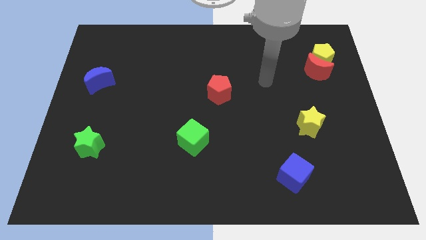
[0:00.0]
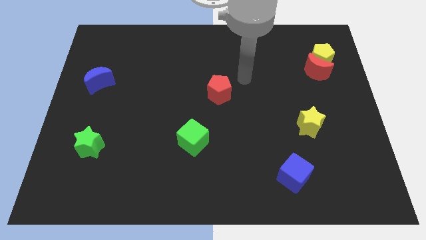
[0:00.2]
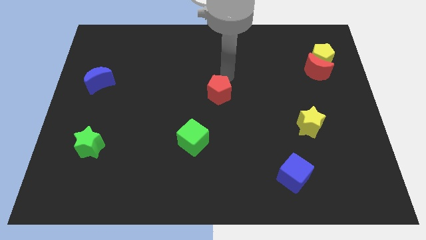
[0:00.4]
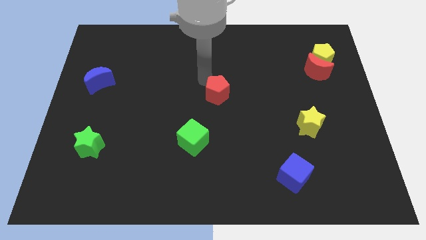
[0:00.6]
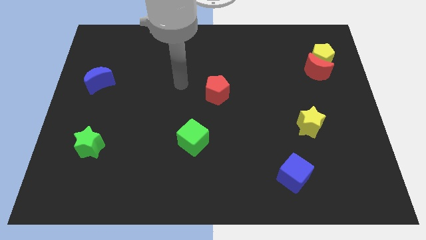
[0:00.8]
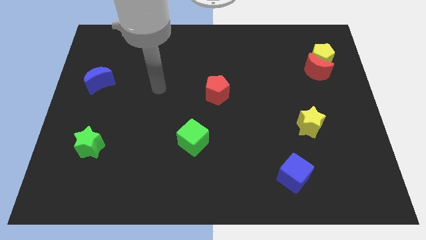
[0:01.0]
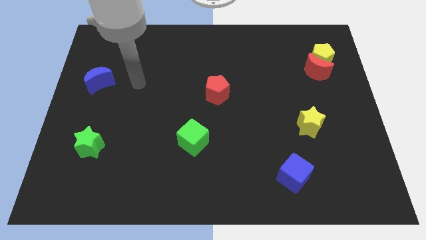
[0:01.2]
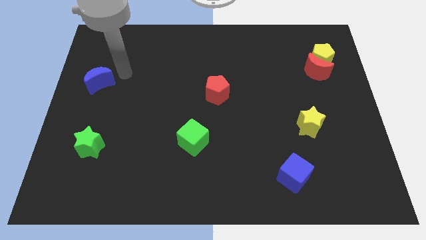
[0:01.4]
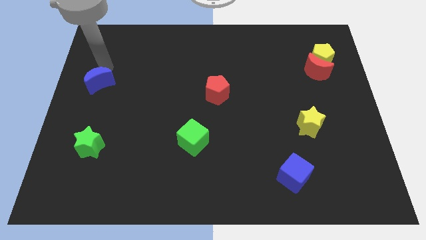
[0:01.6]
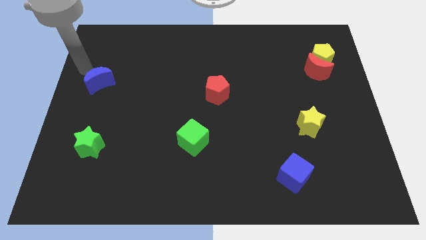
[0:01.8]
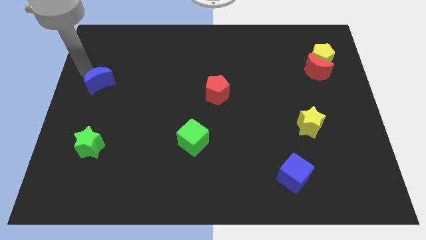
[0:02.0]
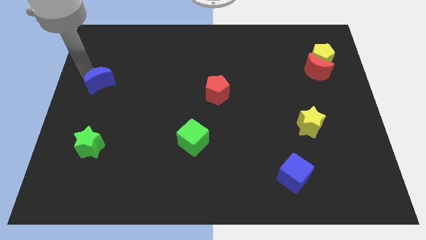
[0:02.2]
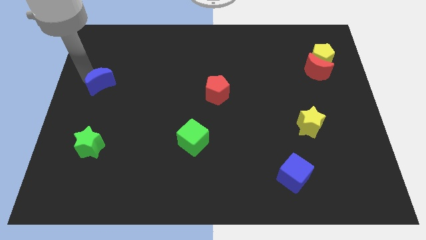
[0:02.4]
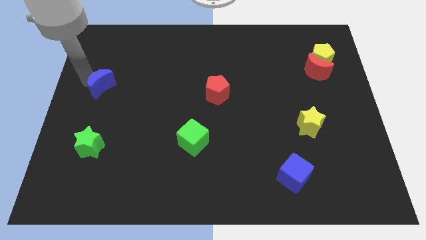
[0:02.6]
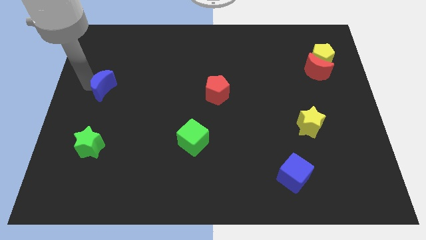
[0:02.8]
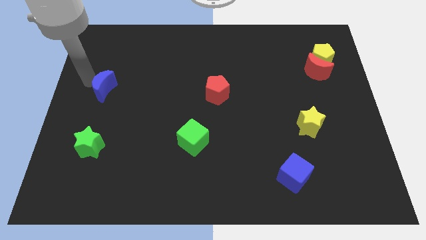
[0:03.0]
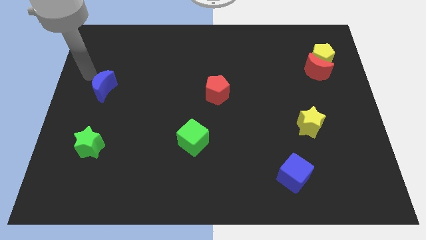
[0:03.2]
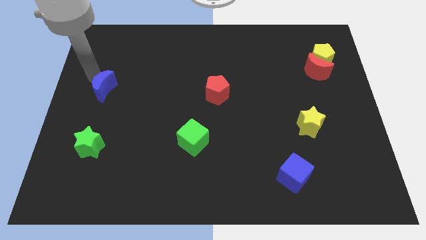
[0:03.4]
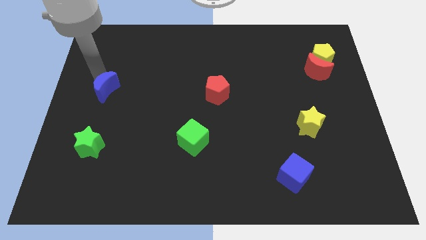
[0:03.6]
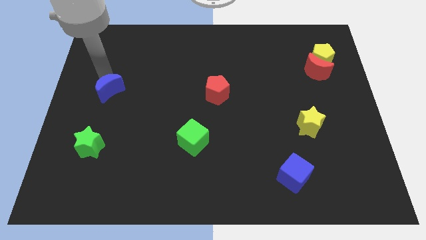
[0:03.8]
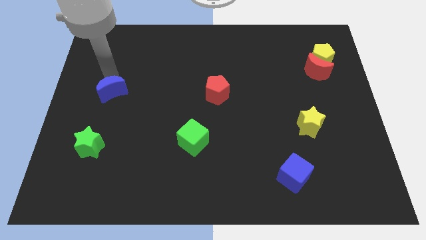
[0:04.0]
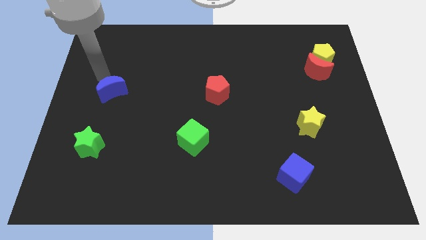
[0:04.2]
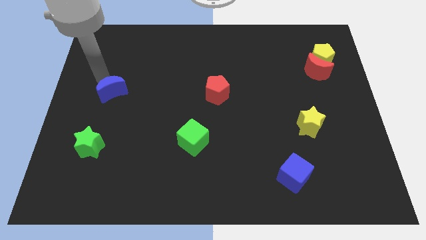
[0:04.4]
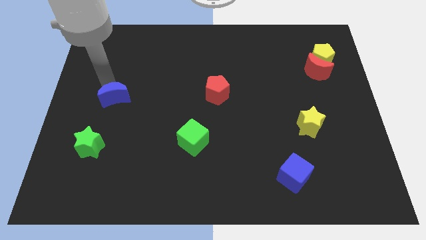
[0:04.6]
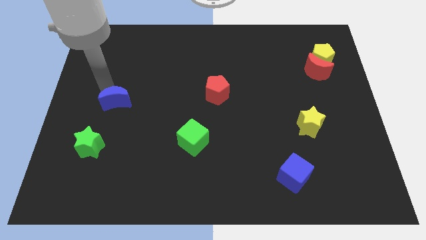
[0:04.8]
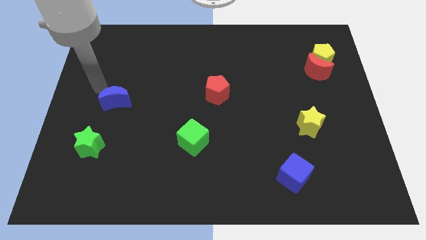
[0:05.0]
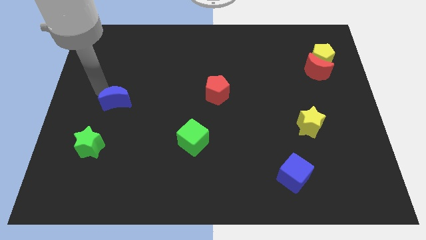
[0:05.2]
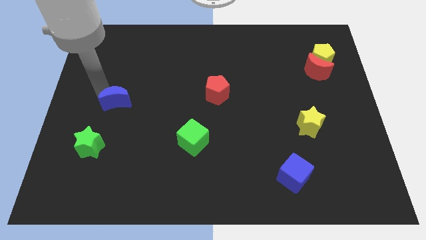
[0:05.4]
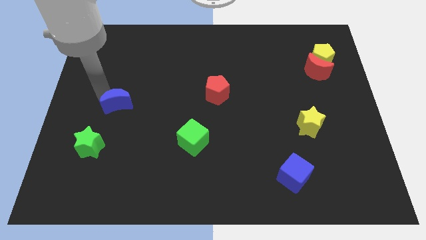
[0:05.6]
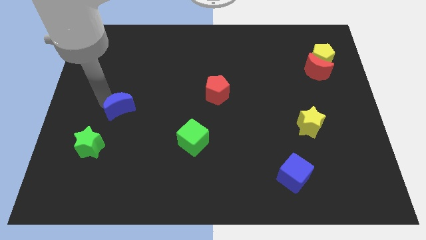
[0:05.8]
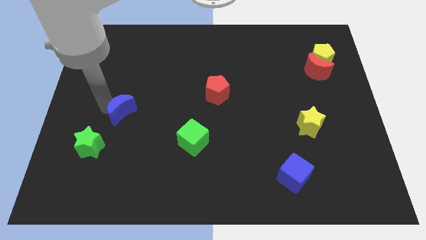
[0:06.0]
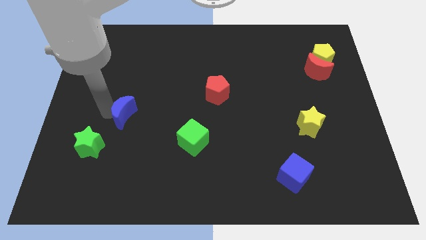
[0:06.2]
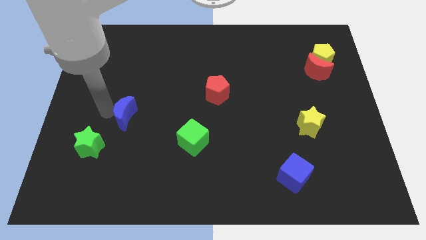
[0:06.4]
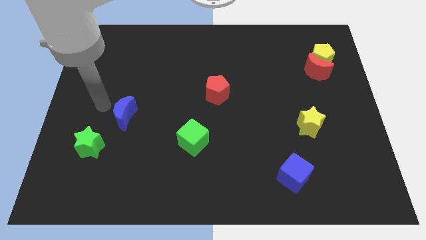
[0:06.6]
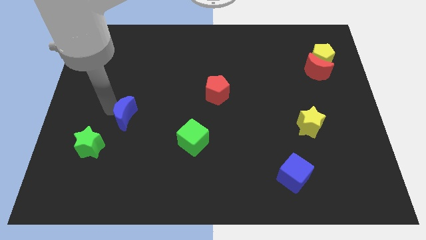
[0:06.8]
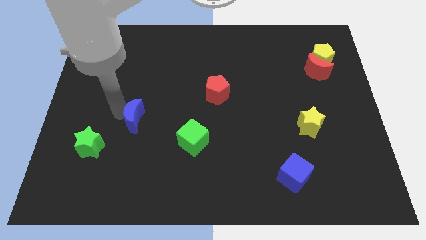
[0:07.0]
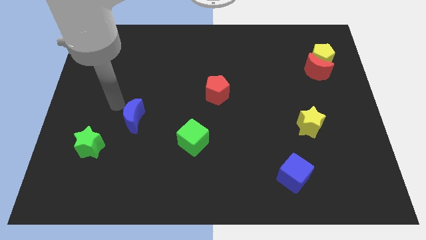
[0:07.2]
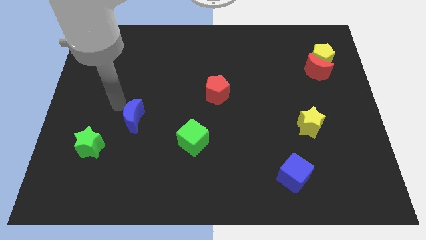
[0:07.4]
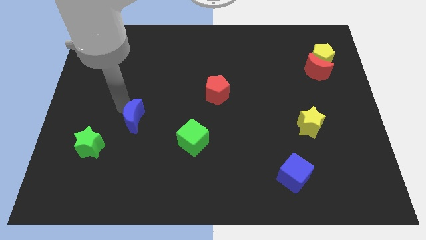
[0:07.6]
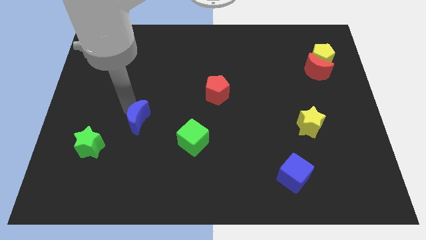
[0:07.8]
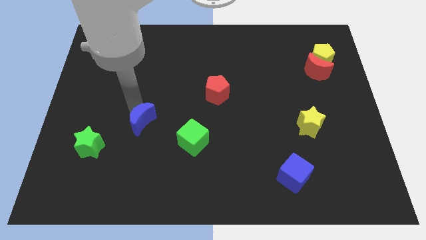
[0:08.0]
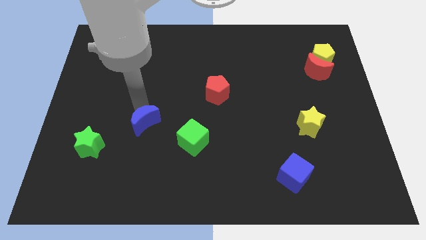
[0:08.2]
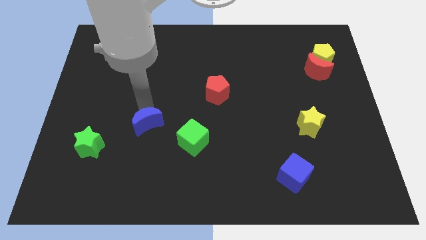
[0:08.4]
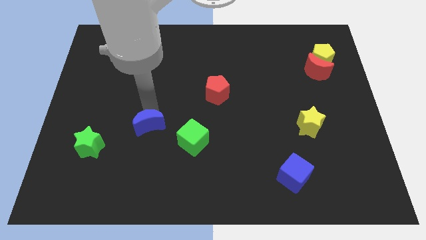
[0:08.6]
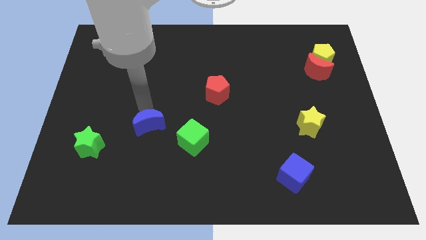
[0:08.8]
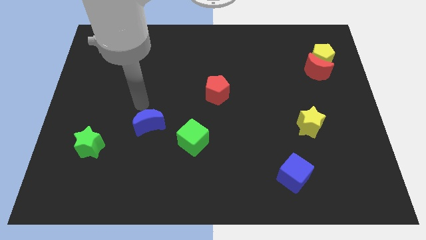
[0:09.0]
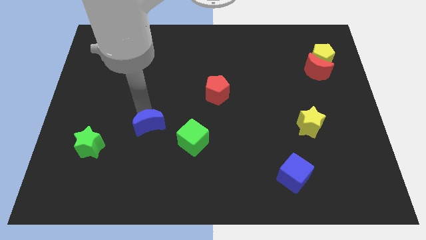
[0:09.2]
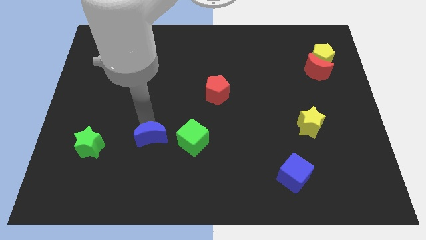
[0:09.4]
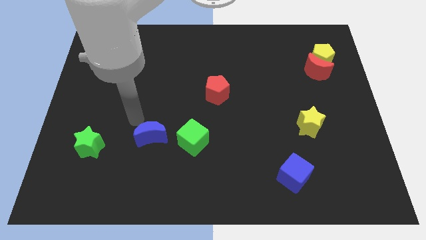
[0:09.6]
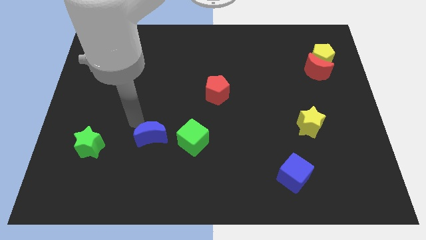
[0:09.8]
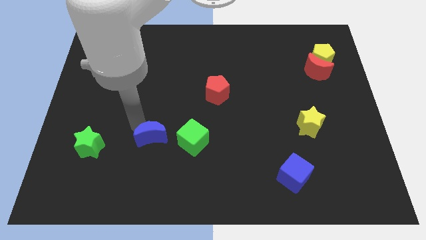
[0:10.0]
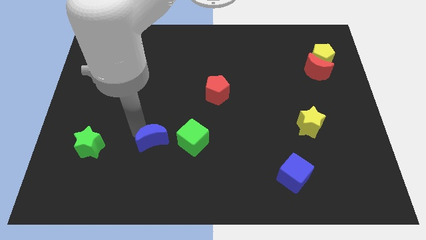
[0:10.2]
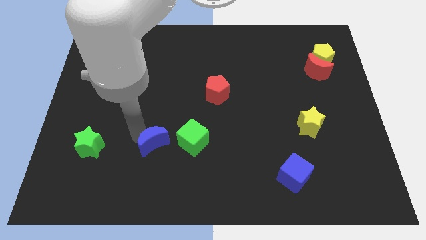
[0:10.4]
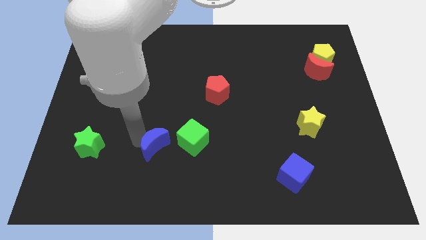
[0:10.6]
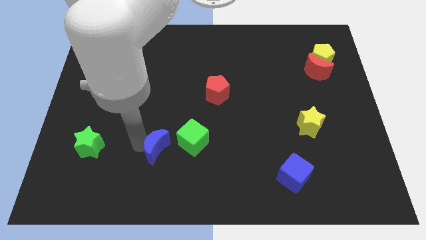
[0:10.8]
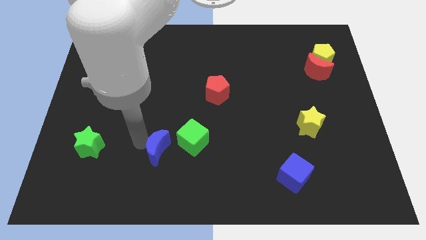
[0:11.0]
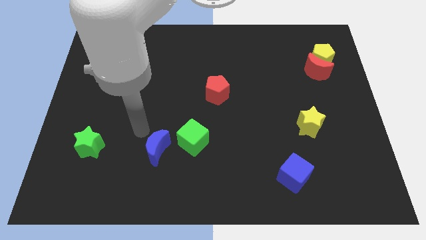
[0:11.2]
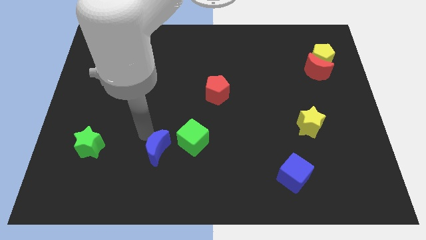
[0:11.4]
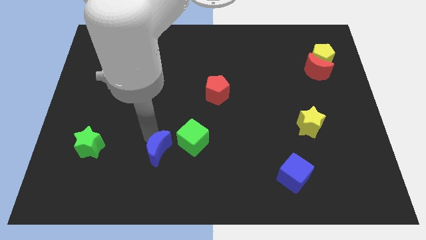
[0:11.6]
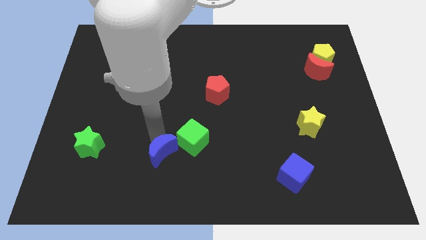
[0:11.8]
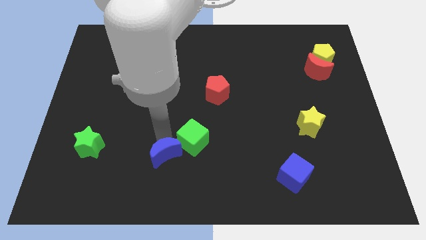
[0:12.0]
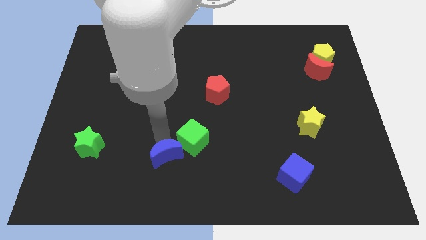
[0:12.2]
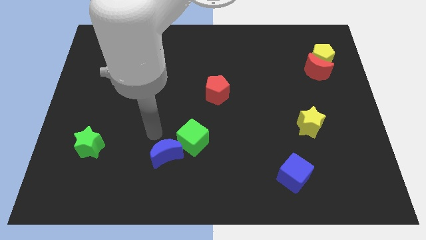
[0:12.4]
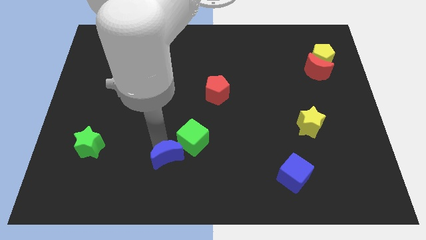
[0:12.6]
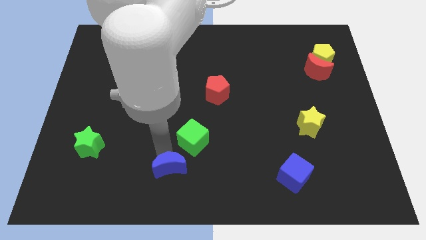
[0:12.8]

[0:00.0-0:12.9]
push the blue moon to the bottom side
